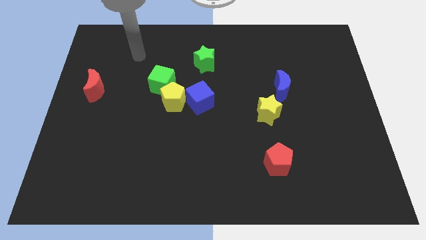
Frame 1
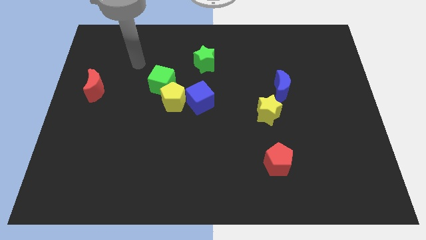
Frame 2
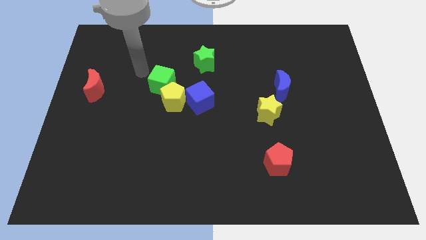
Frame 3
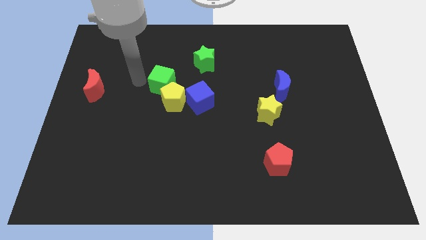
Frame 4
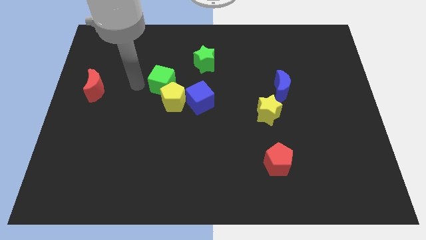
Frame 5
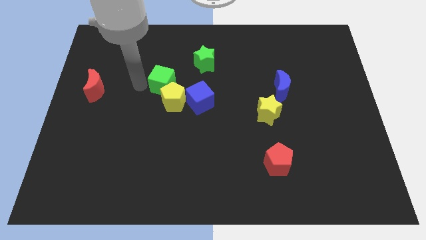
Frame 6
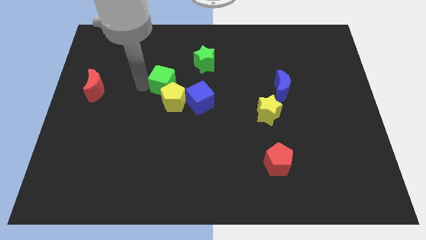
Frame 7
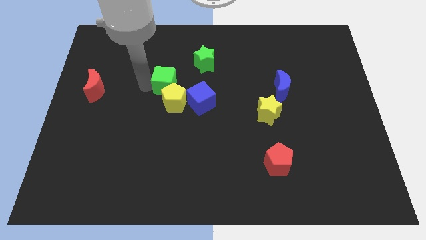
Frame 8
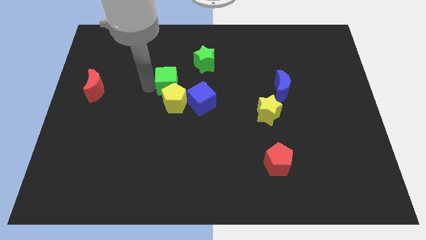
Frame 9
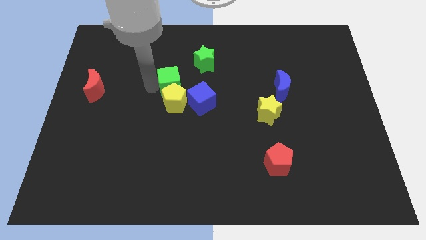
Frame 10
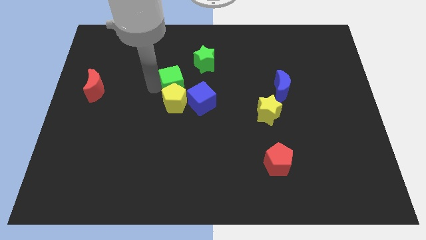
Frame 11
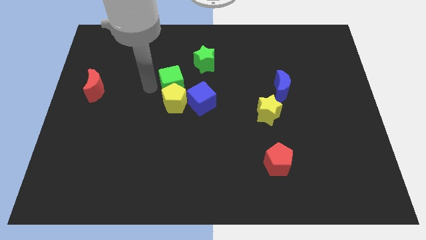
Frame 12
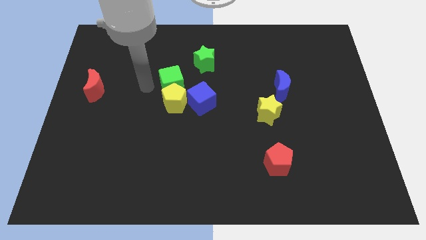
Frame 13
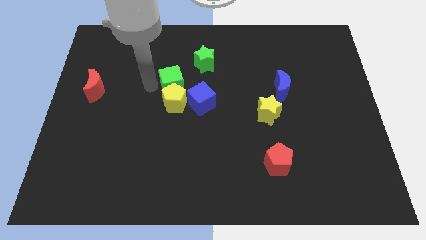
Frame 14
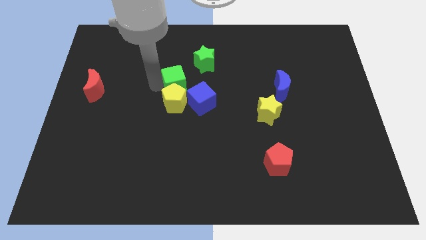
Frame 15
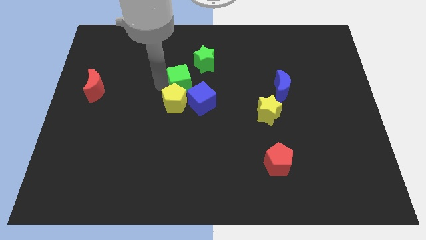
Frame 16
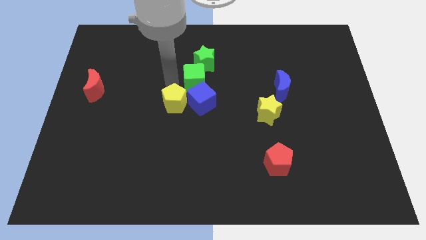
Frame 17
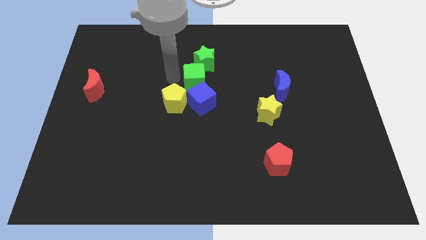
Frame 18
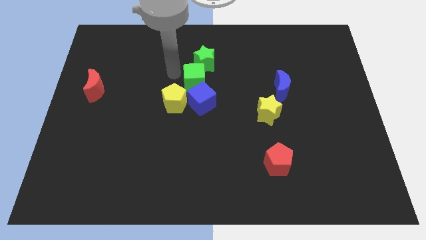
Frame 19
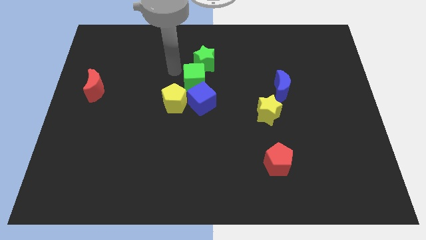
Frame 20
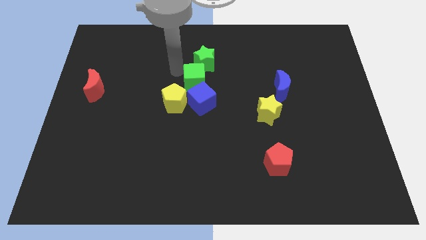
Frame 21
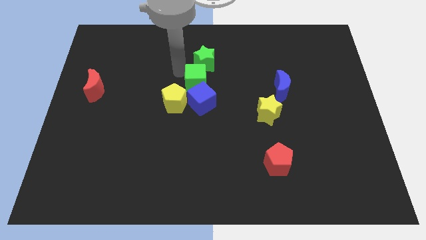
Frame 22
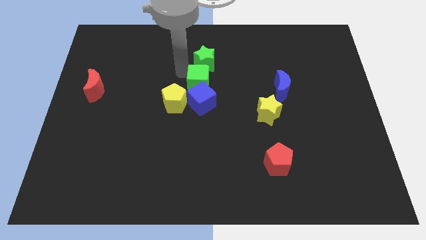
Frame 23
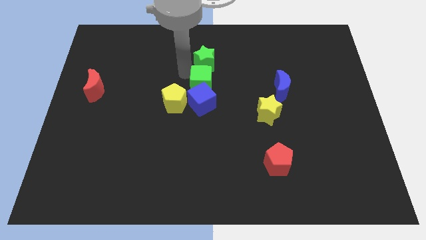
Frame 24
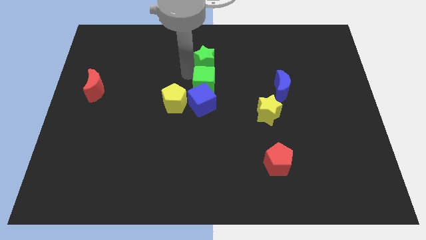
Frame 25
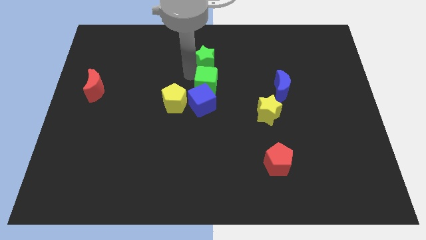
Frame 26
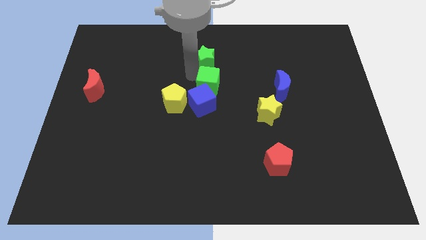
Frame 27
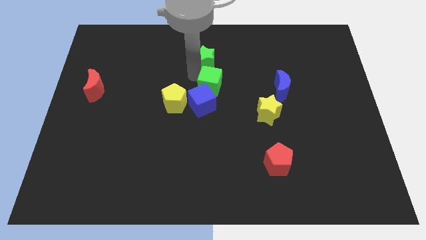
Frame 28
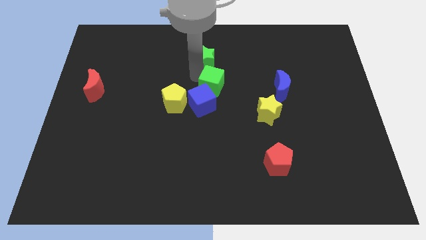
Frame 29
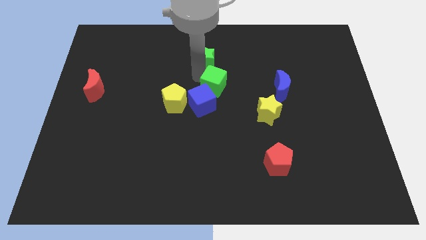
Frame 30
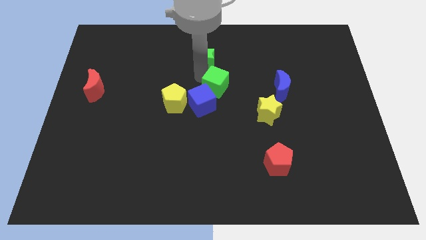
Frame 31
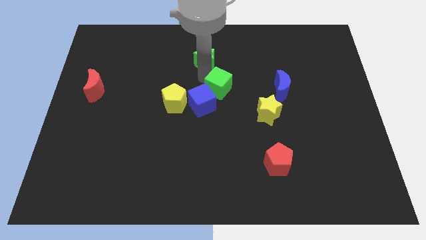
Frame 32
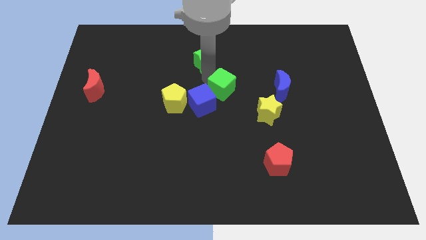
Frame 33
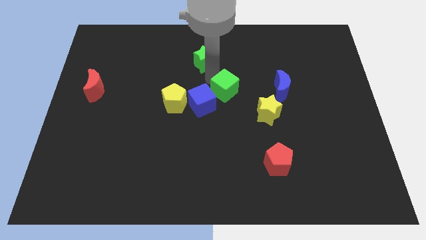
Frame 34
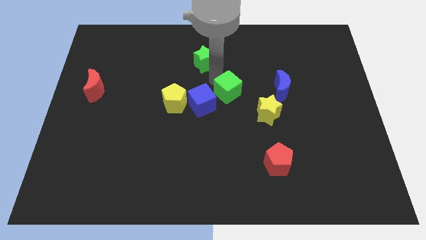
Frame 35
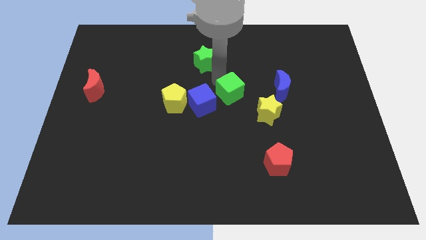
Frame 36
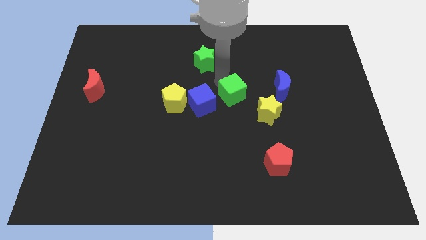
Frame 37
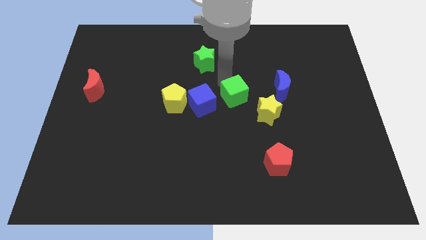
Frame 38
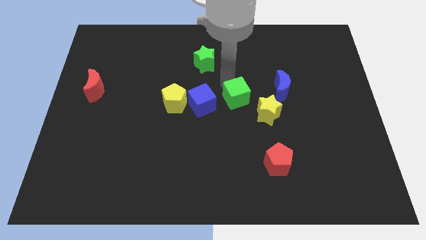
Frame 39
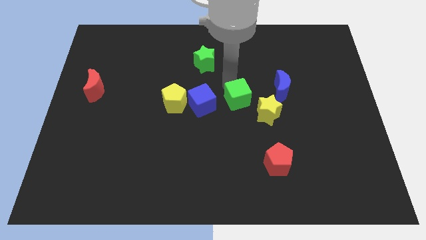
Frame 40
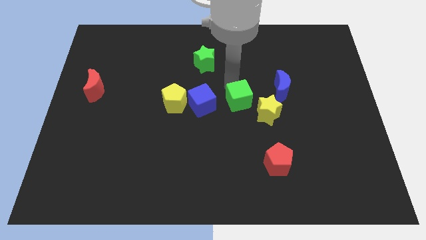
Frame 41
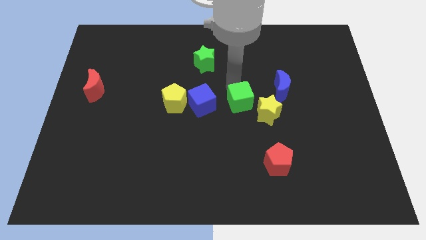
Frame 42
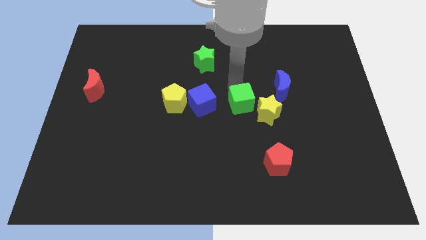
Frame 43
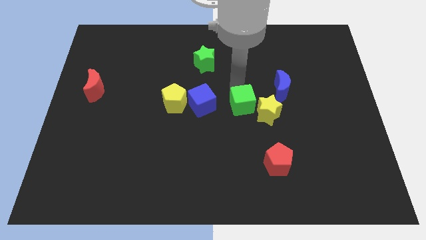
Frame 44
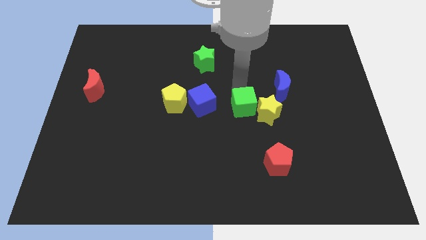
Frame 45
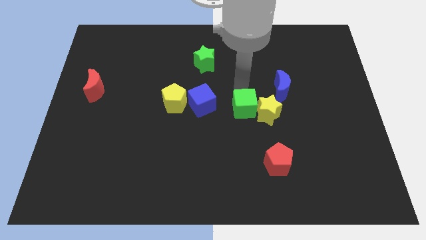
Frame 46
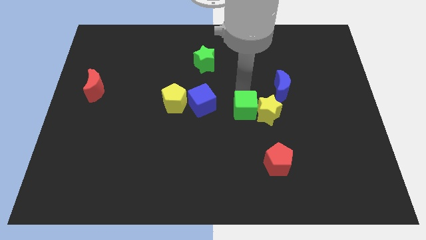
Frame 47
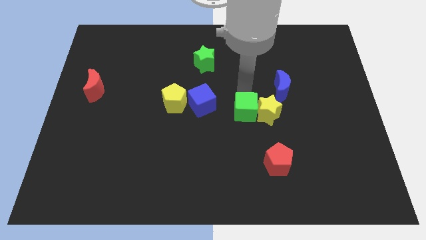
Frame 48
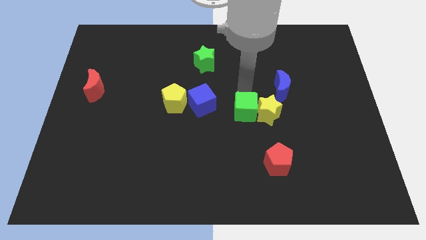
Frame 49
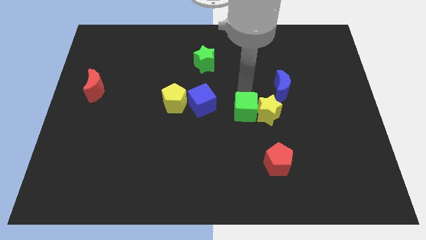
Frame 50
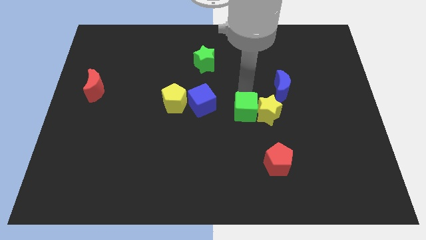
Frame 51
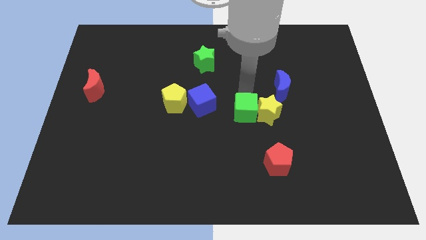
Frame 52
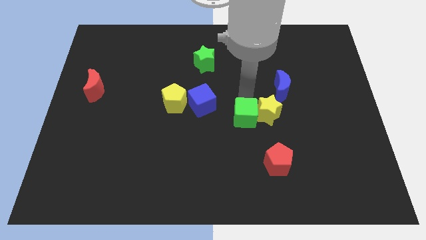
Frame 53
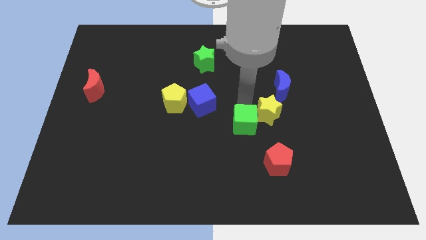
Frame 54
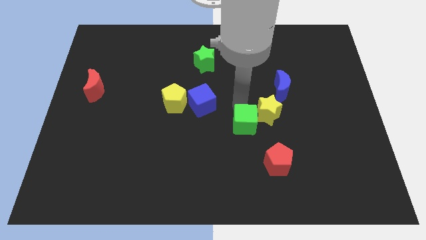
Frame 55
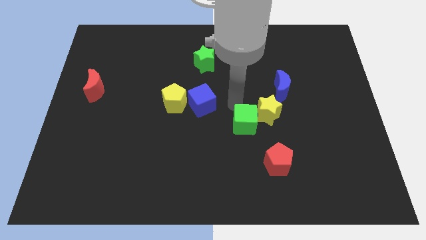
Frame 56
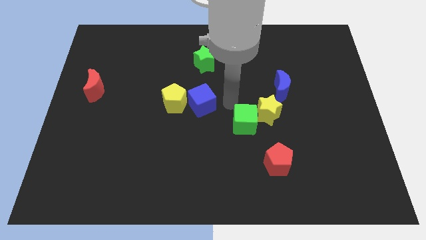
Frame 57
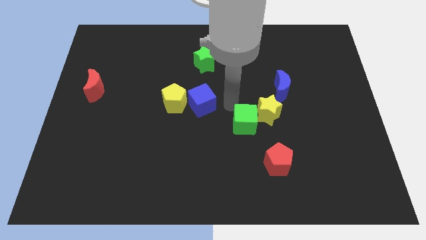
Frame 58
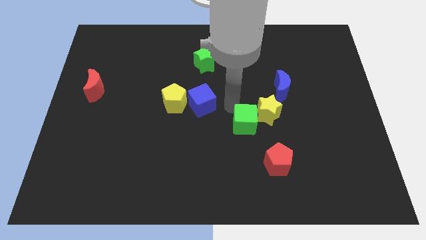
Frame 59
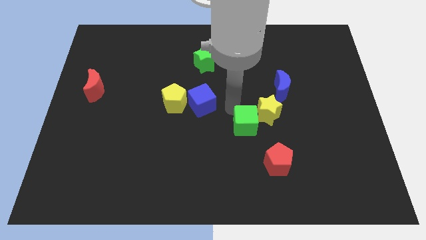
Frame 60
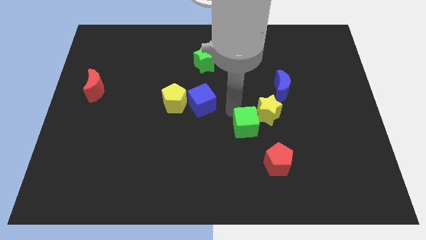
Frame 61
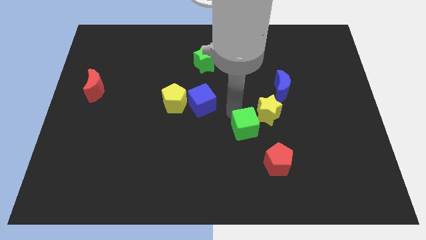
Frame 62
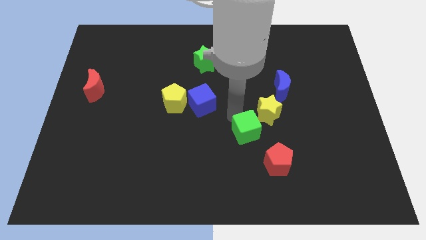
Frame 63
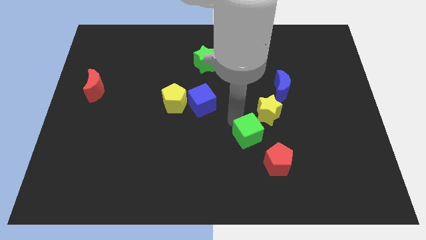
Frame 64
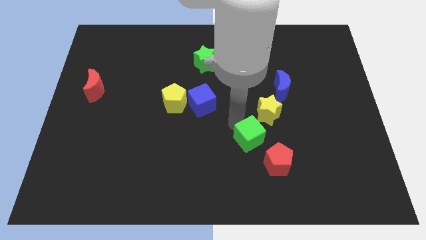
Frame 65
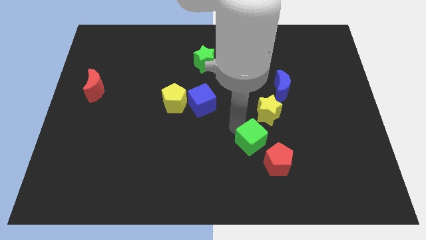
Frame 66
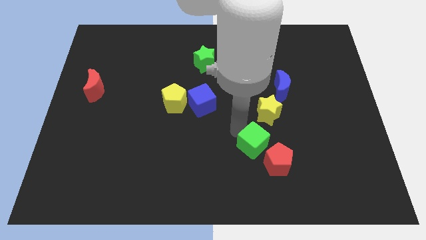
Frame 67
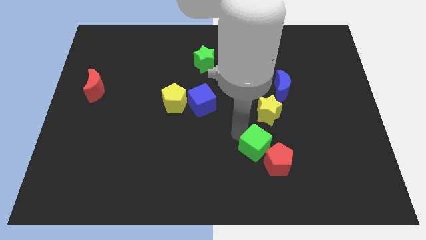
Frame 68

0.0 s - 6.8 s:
push the green cube next to the red pentagon

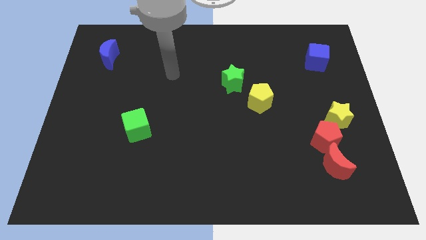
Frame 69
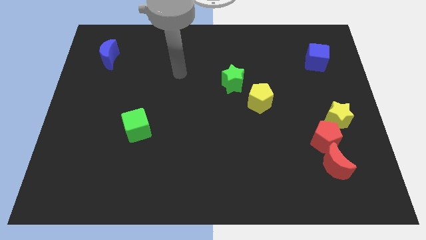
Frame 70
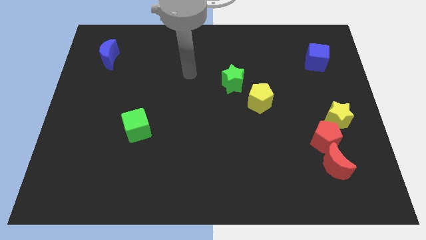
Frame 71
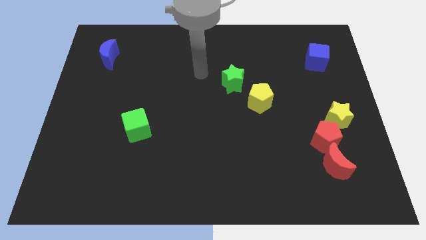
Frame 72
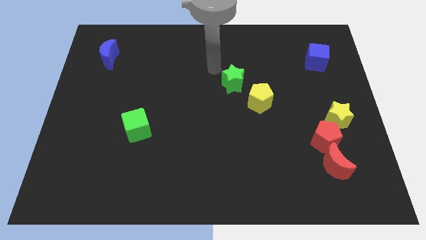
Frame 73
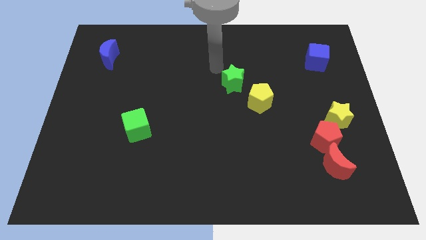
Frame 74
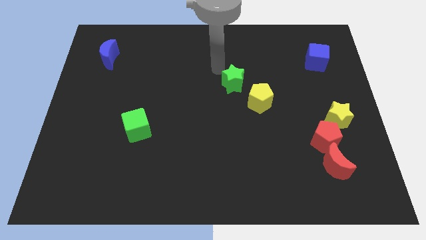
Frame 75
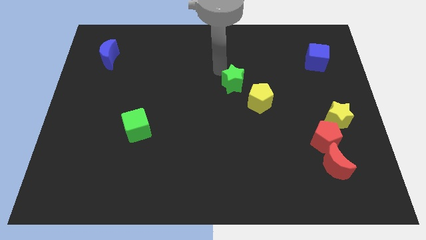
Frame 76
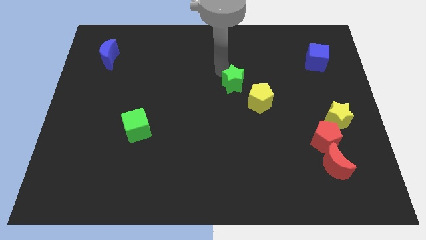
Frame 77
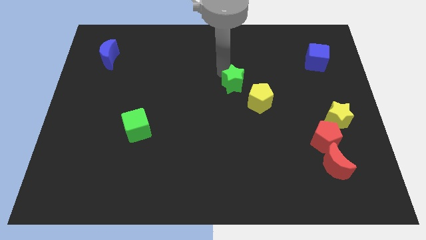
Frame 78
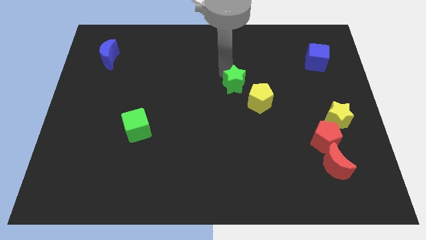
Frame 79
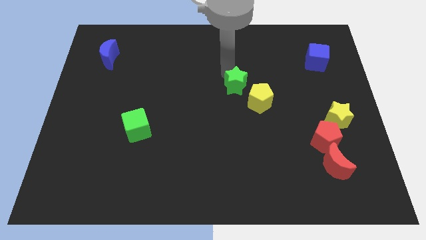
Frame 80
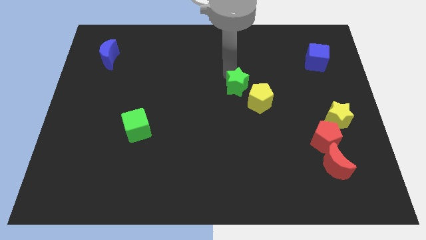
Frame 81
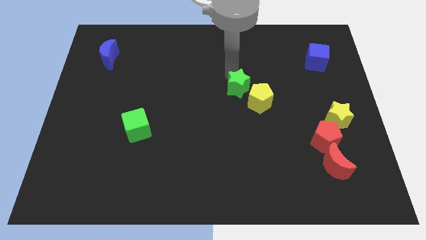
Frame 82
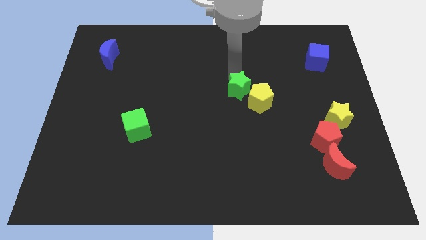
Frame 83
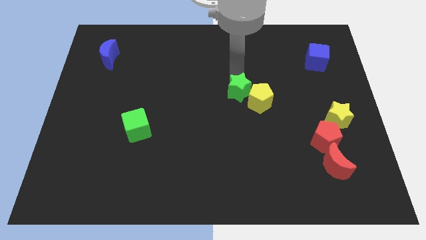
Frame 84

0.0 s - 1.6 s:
move the green star towards the yellow pentagon
